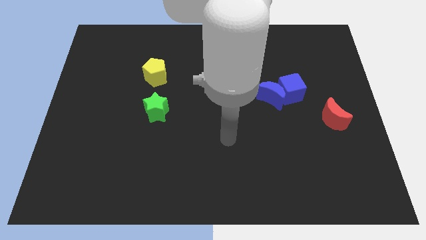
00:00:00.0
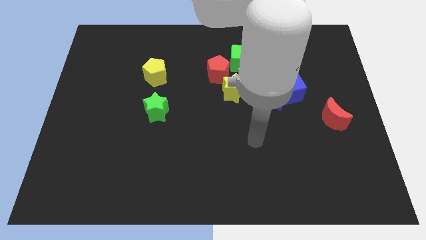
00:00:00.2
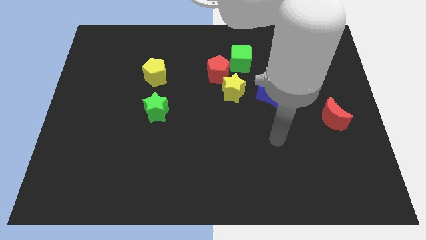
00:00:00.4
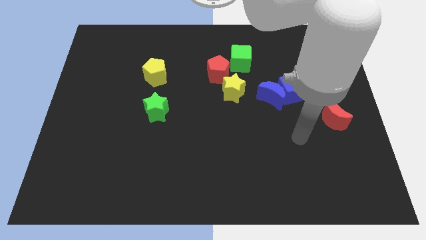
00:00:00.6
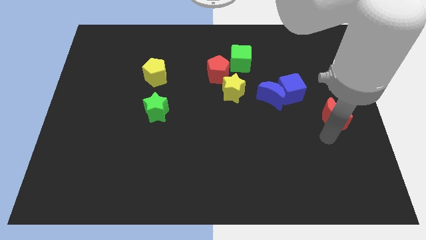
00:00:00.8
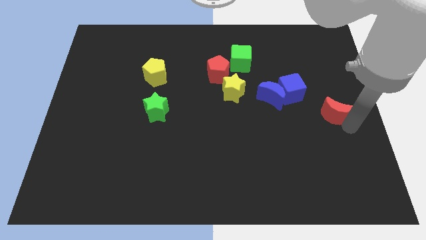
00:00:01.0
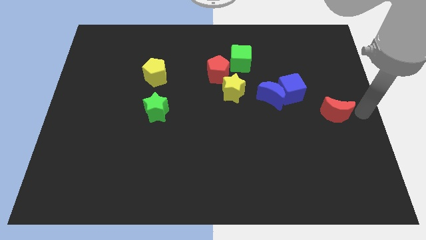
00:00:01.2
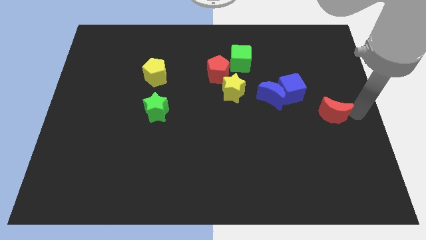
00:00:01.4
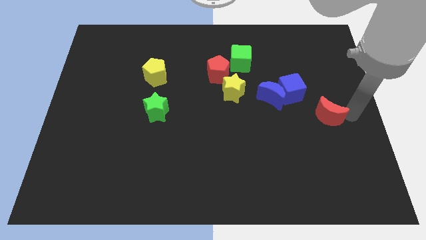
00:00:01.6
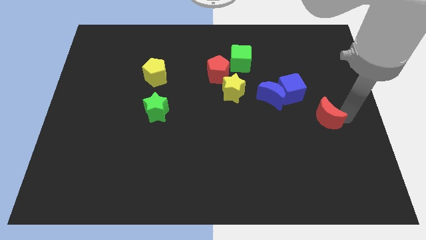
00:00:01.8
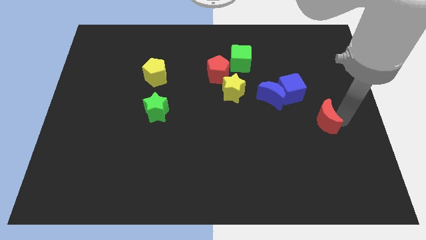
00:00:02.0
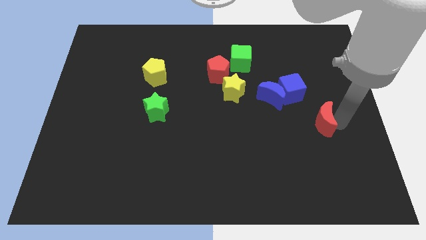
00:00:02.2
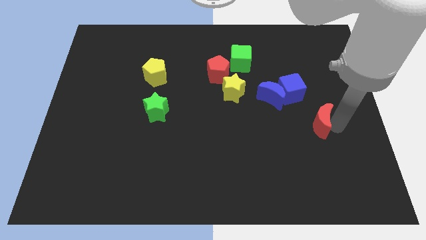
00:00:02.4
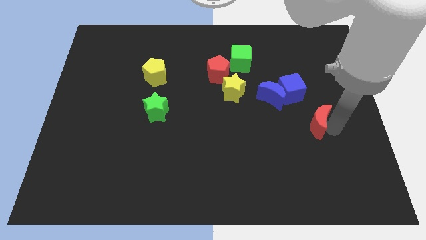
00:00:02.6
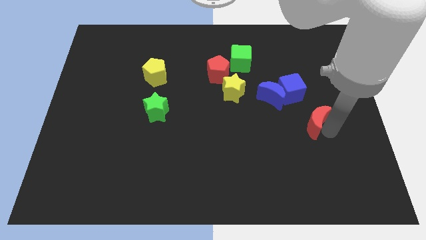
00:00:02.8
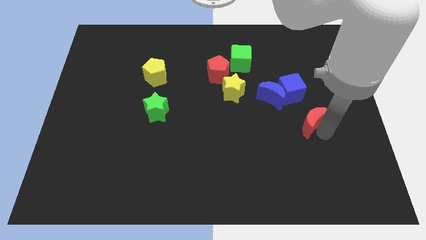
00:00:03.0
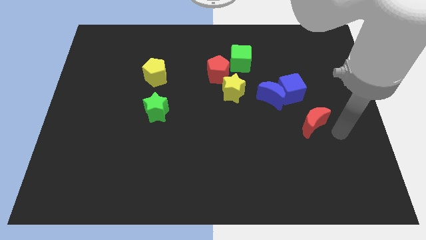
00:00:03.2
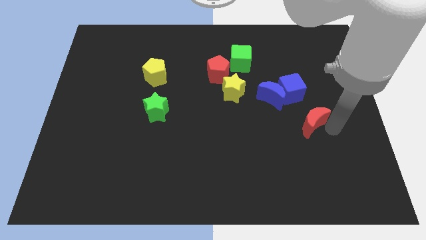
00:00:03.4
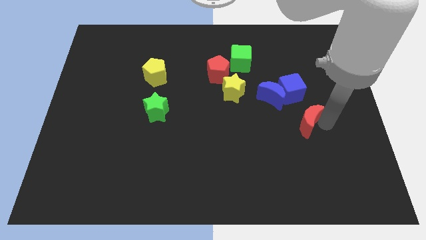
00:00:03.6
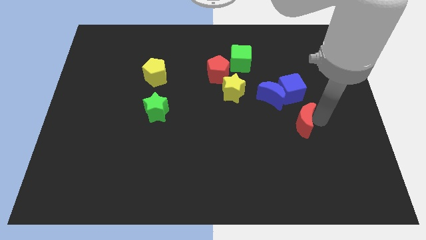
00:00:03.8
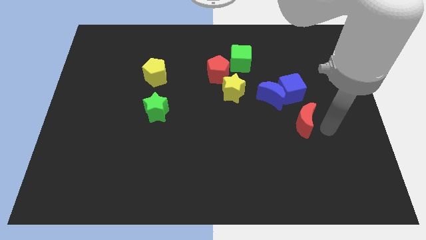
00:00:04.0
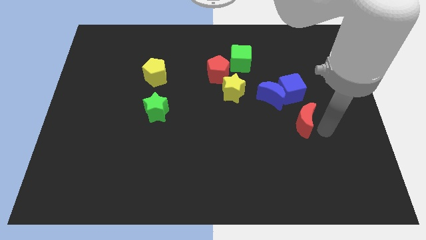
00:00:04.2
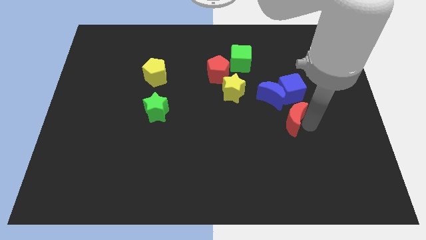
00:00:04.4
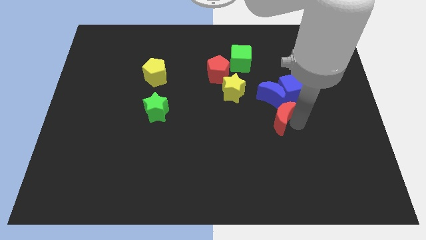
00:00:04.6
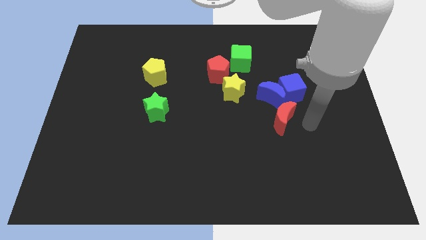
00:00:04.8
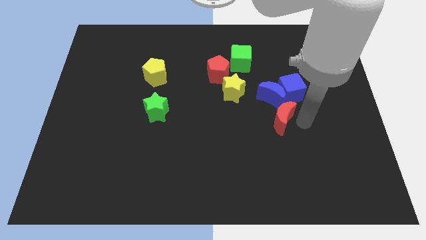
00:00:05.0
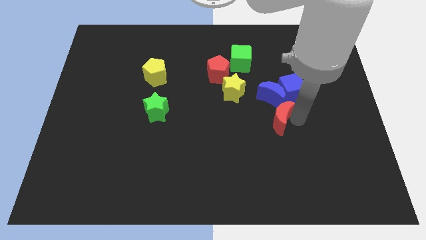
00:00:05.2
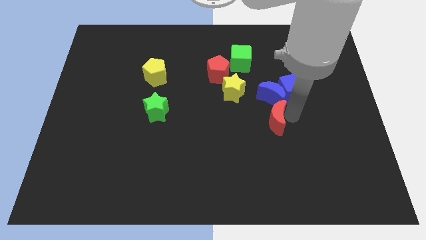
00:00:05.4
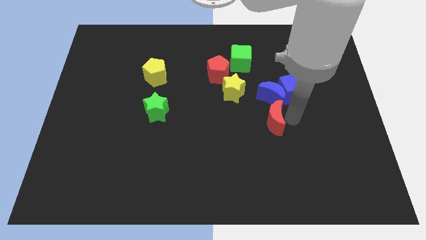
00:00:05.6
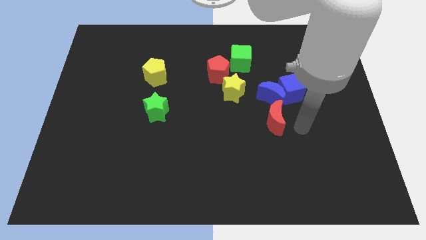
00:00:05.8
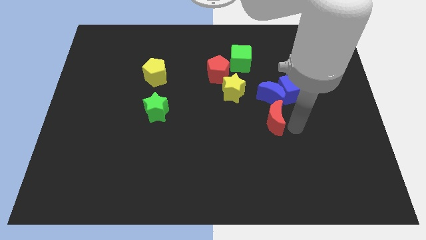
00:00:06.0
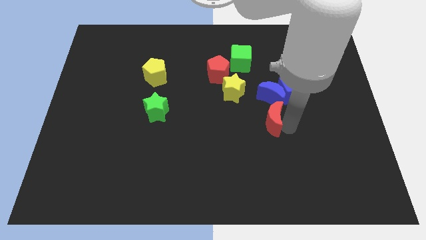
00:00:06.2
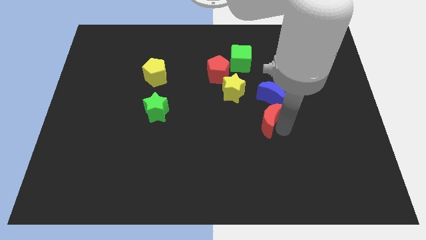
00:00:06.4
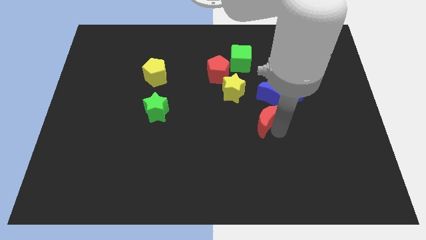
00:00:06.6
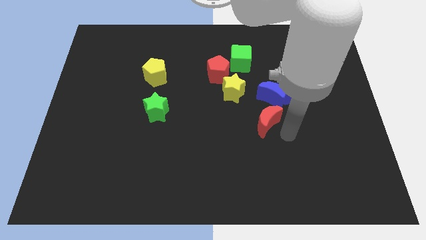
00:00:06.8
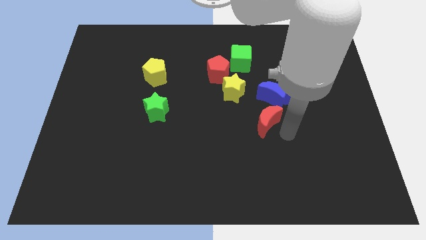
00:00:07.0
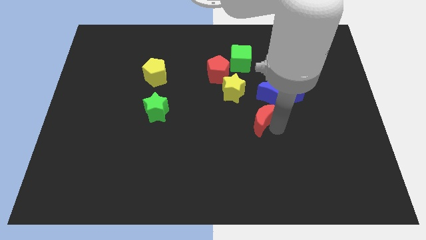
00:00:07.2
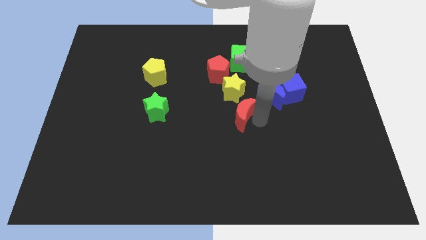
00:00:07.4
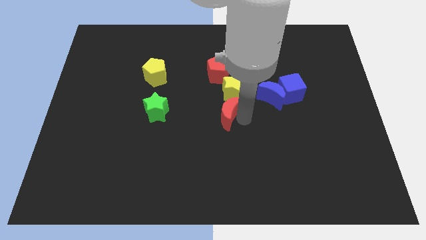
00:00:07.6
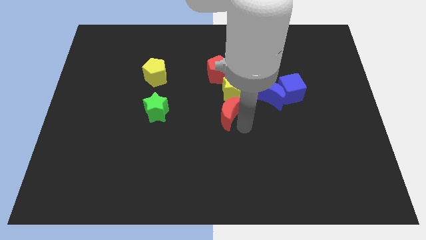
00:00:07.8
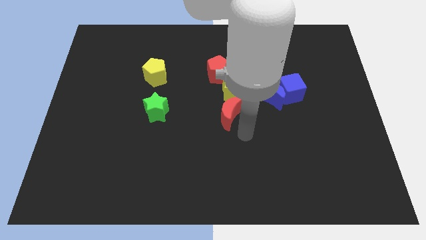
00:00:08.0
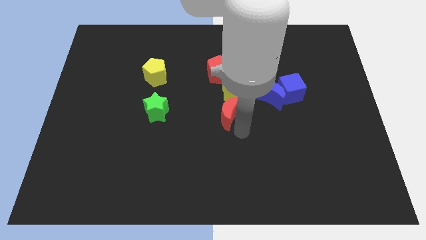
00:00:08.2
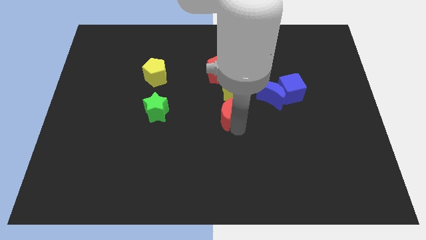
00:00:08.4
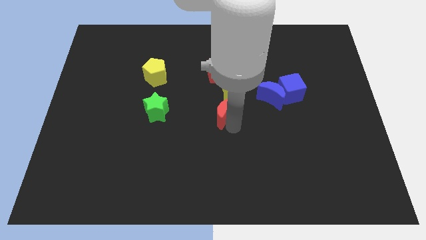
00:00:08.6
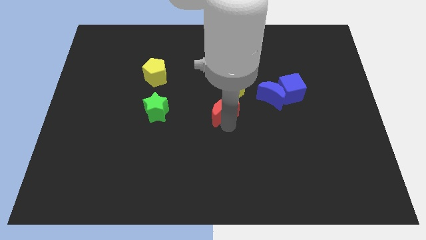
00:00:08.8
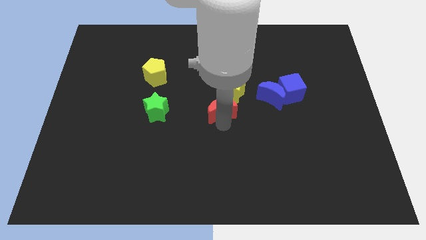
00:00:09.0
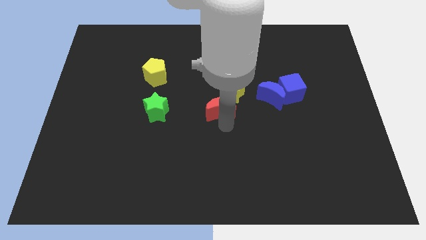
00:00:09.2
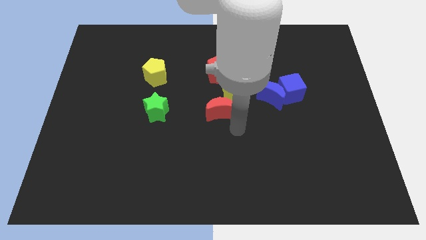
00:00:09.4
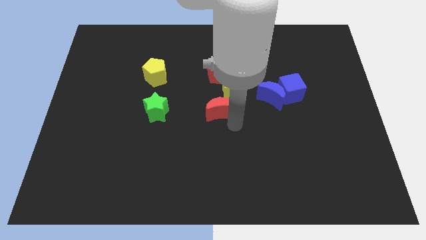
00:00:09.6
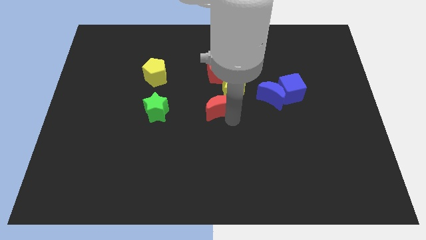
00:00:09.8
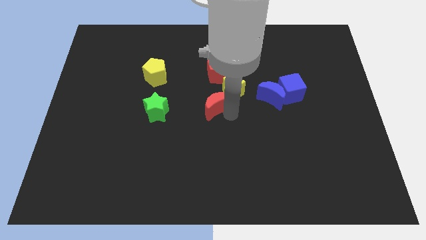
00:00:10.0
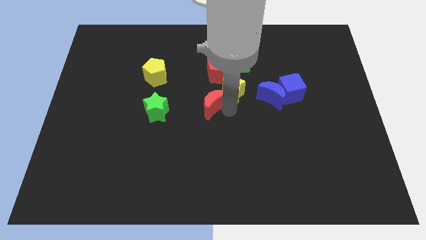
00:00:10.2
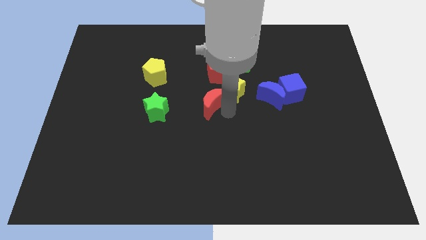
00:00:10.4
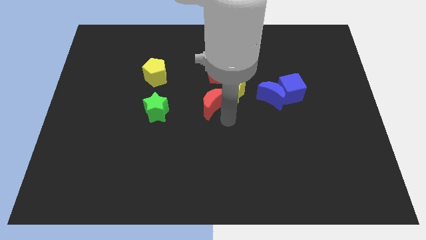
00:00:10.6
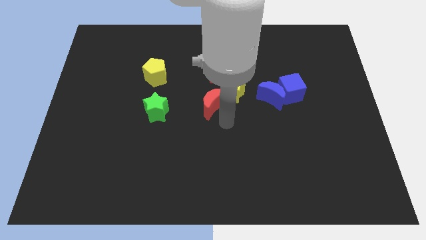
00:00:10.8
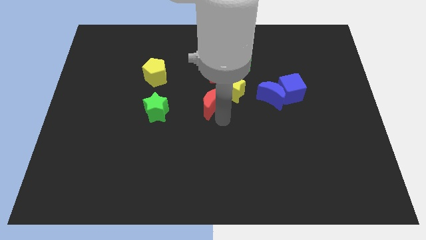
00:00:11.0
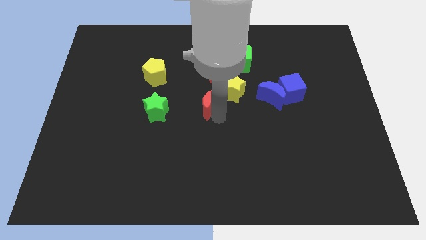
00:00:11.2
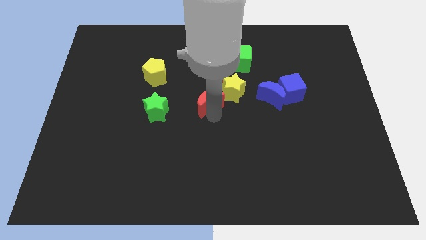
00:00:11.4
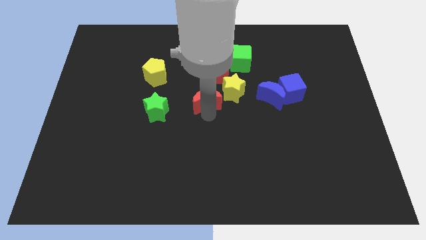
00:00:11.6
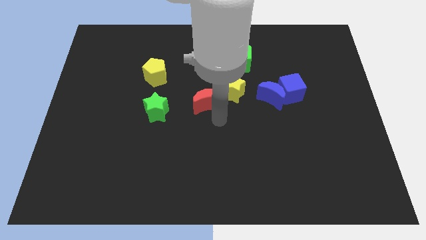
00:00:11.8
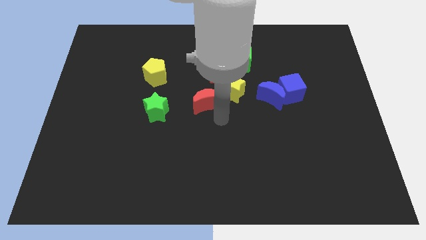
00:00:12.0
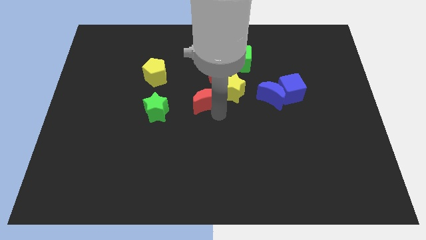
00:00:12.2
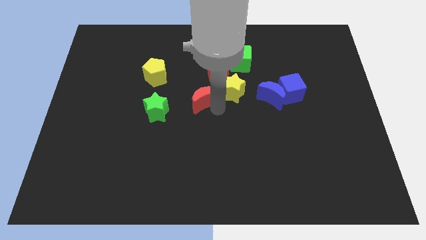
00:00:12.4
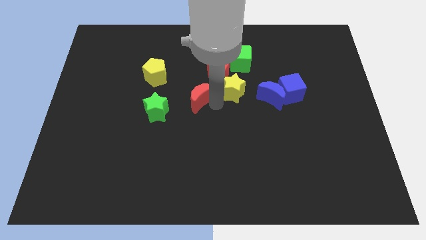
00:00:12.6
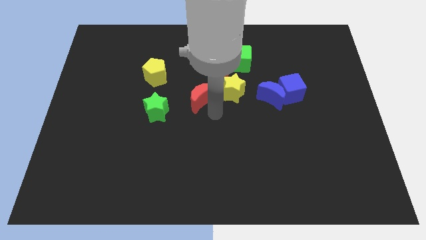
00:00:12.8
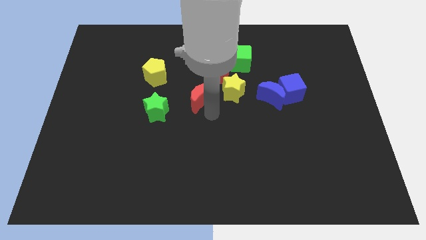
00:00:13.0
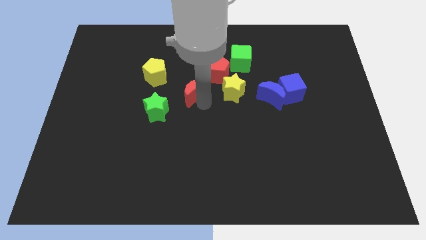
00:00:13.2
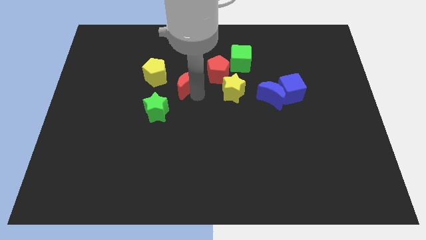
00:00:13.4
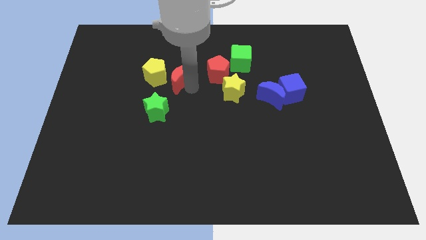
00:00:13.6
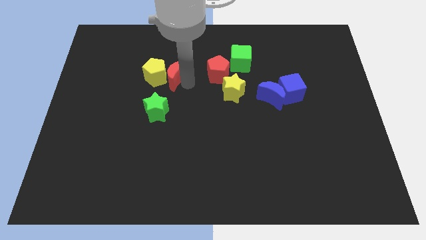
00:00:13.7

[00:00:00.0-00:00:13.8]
push the red moon close to the yellow pentagon
